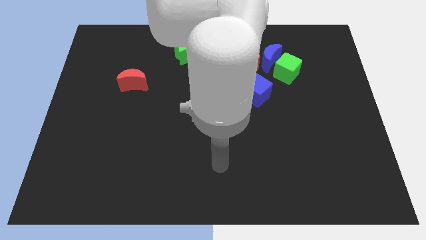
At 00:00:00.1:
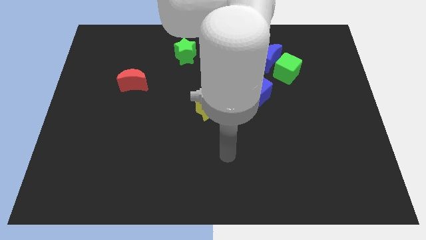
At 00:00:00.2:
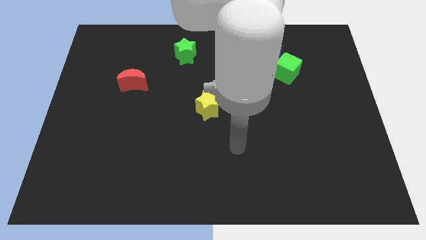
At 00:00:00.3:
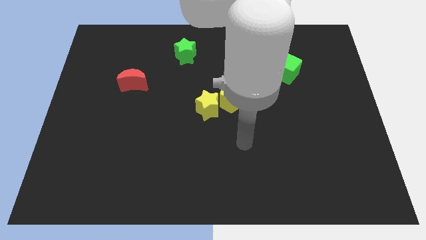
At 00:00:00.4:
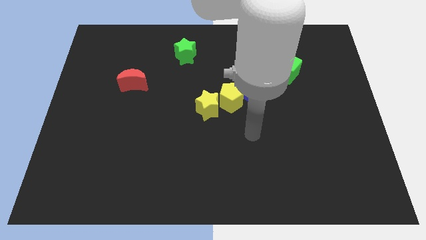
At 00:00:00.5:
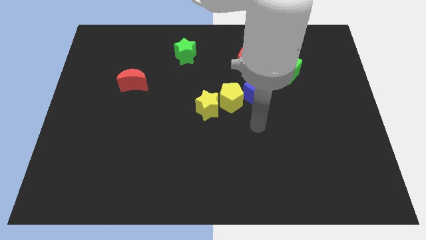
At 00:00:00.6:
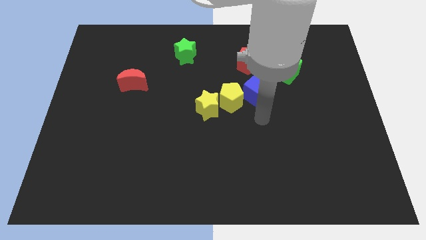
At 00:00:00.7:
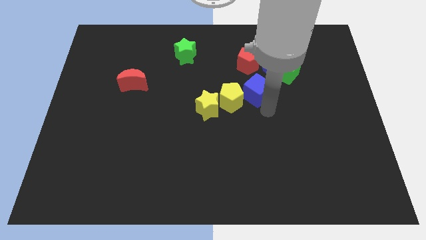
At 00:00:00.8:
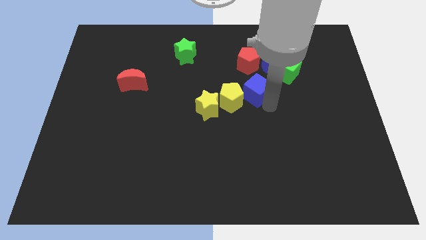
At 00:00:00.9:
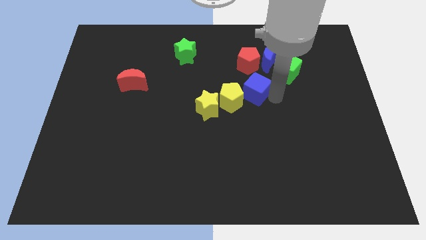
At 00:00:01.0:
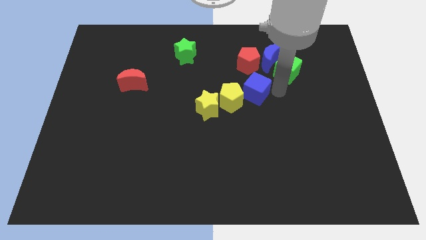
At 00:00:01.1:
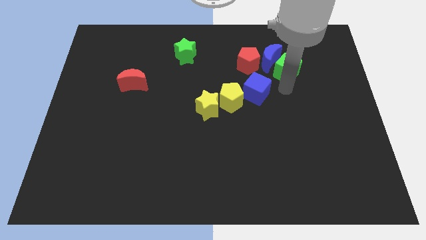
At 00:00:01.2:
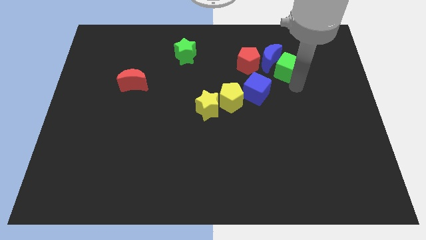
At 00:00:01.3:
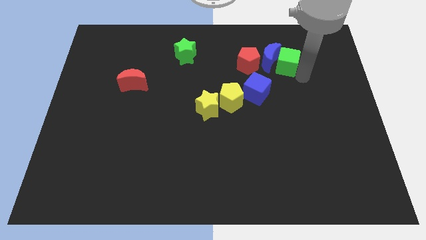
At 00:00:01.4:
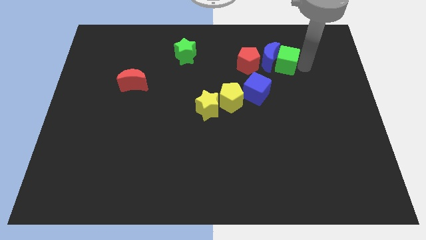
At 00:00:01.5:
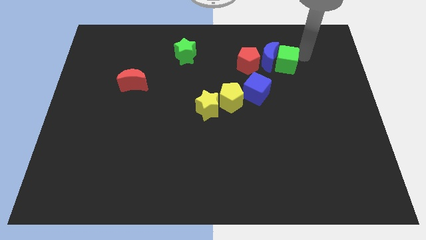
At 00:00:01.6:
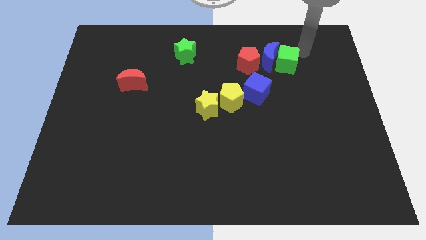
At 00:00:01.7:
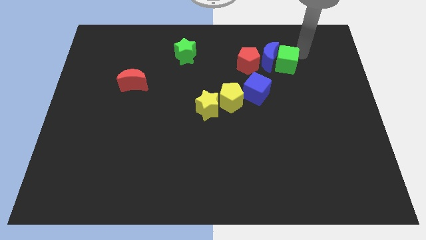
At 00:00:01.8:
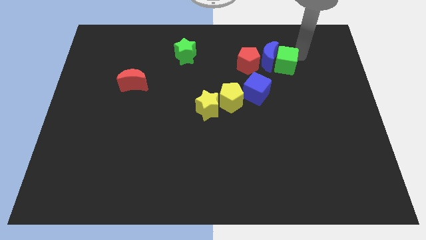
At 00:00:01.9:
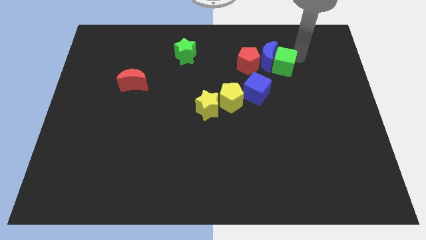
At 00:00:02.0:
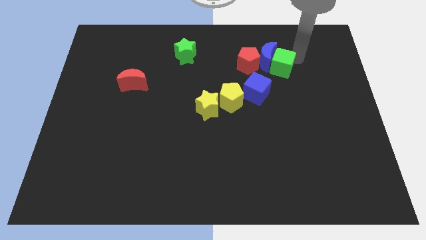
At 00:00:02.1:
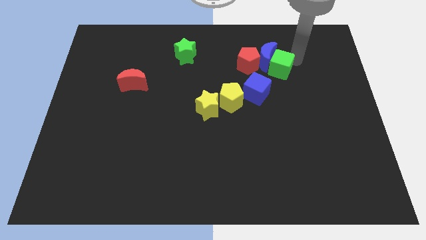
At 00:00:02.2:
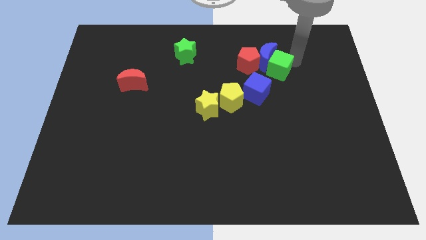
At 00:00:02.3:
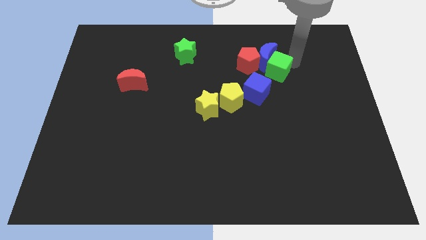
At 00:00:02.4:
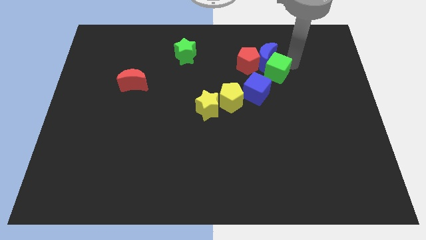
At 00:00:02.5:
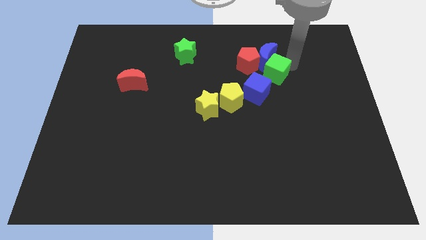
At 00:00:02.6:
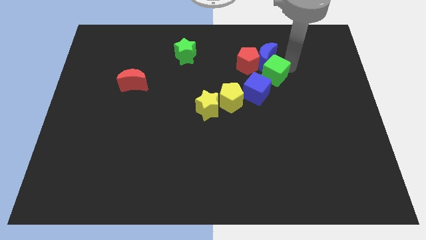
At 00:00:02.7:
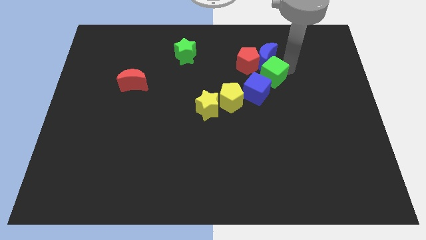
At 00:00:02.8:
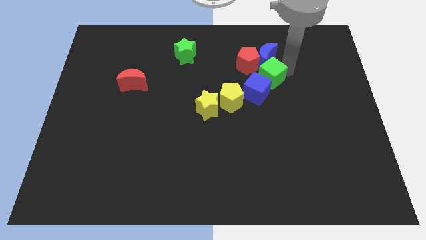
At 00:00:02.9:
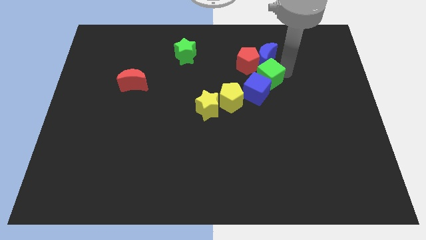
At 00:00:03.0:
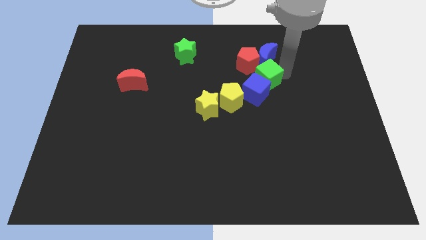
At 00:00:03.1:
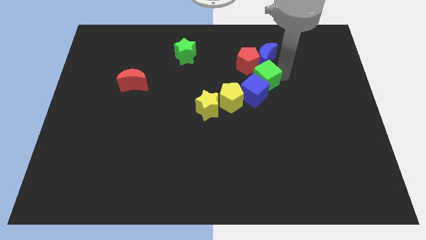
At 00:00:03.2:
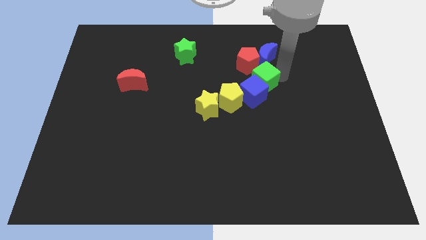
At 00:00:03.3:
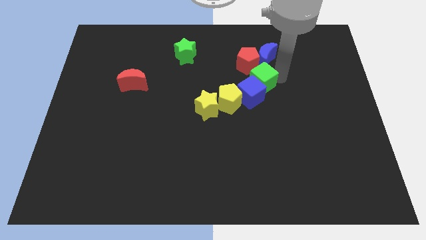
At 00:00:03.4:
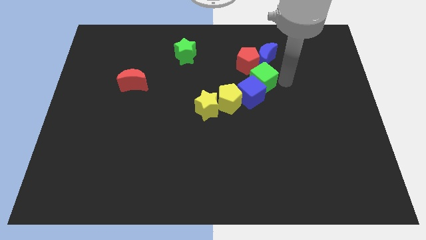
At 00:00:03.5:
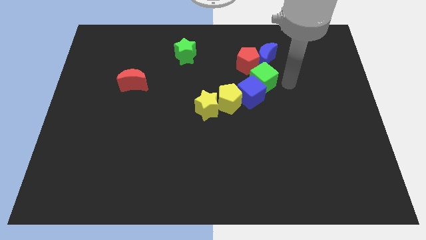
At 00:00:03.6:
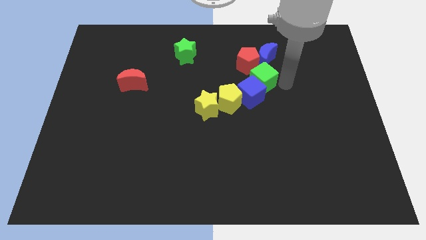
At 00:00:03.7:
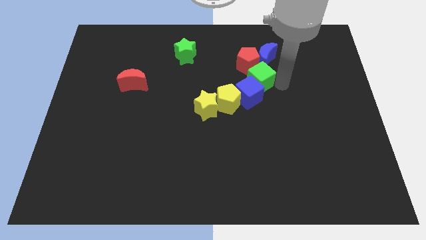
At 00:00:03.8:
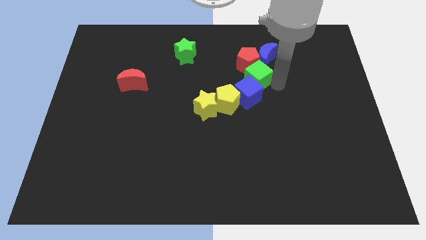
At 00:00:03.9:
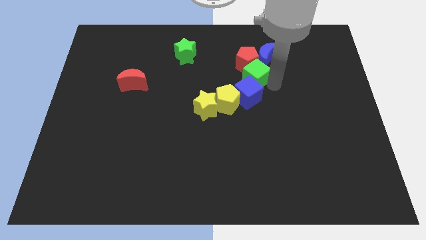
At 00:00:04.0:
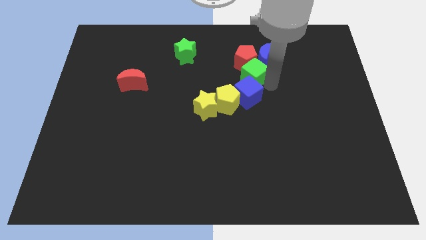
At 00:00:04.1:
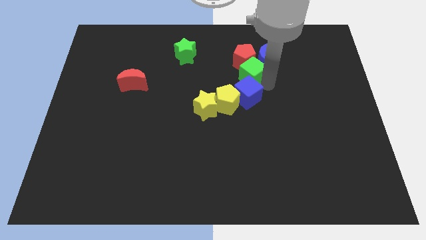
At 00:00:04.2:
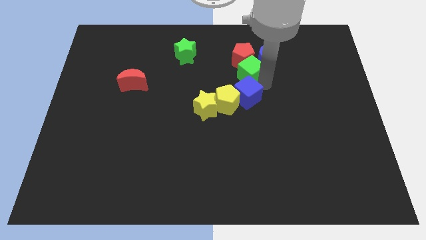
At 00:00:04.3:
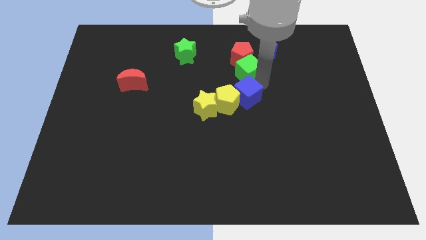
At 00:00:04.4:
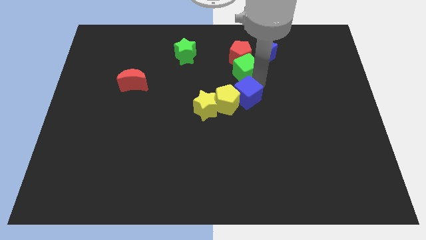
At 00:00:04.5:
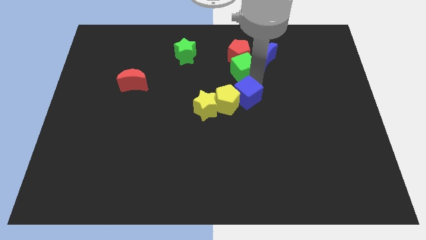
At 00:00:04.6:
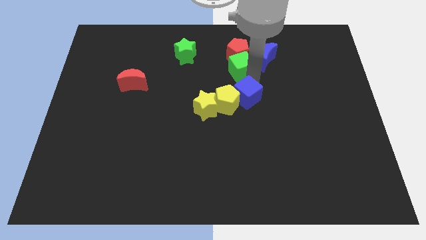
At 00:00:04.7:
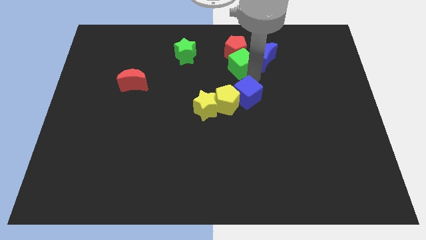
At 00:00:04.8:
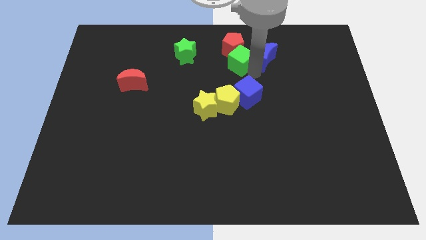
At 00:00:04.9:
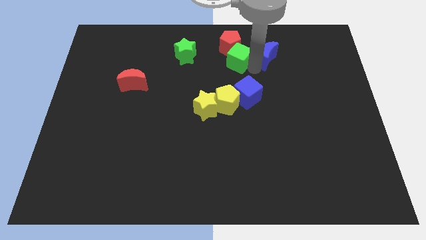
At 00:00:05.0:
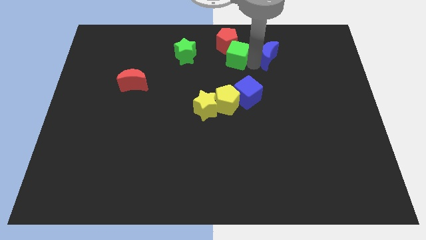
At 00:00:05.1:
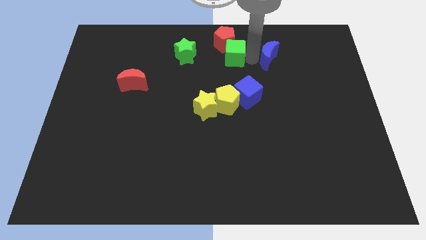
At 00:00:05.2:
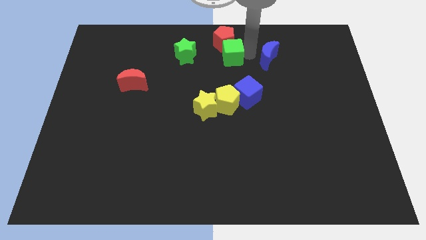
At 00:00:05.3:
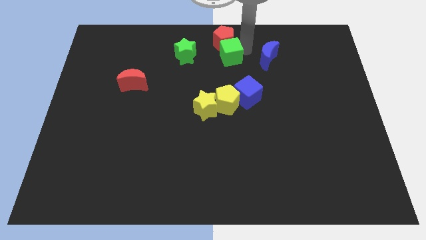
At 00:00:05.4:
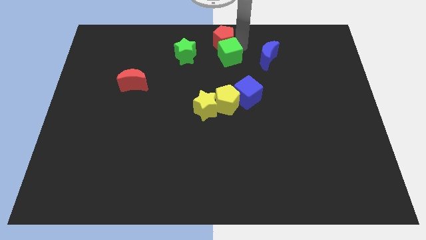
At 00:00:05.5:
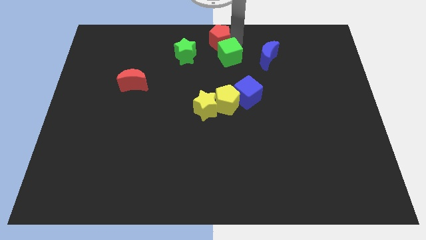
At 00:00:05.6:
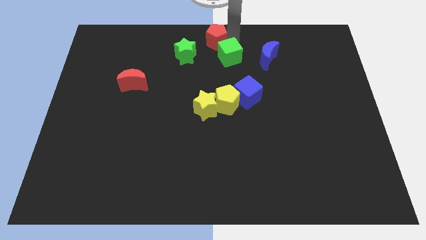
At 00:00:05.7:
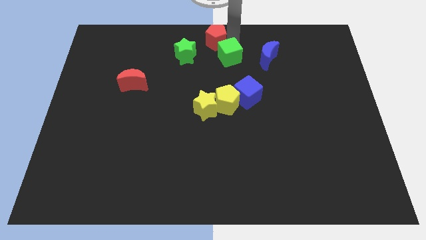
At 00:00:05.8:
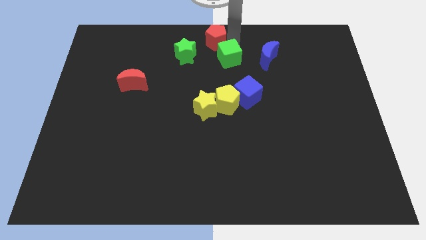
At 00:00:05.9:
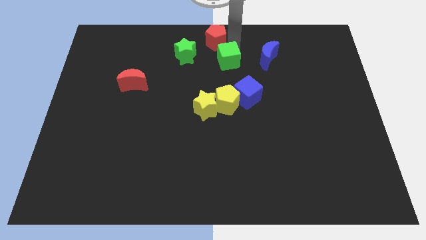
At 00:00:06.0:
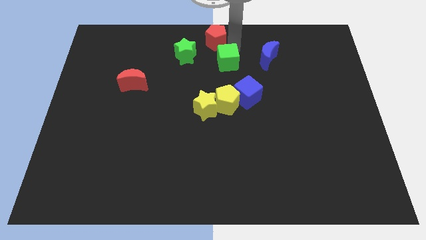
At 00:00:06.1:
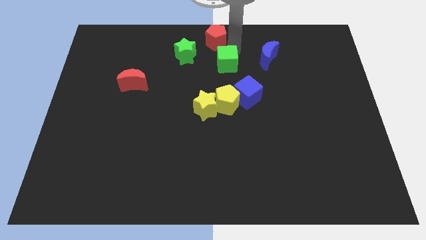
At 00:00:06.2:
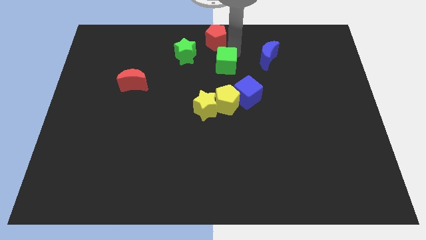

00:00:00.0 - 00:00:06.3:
move the green cube to the top left of the blue cube

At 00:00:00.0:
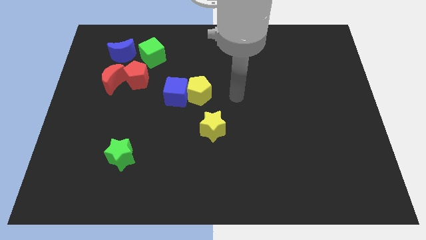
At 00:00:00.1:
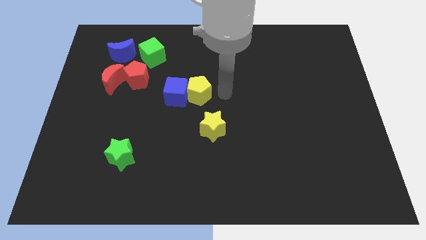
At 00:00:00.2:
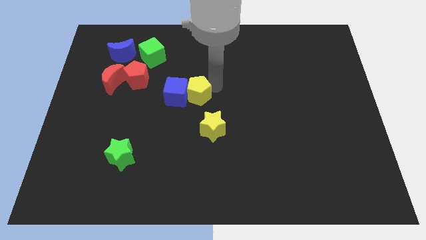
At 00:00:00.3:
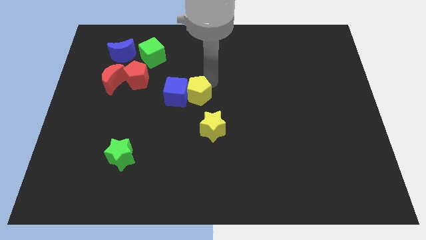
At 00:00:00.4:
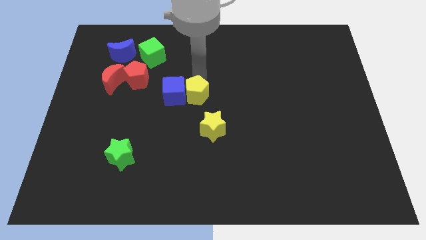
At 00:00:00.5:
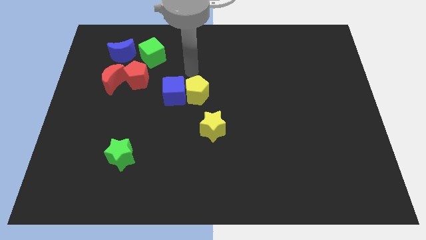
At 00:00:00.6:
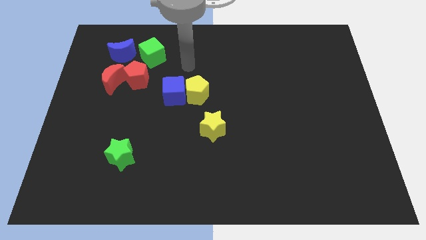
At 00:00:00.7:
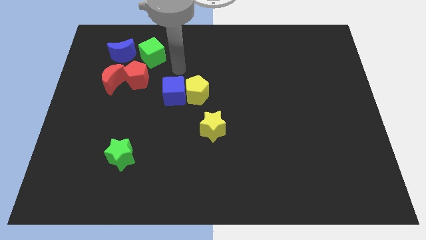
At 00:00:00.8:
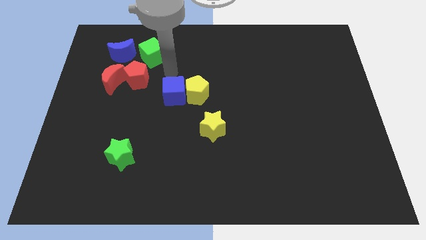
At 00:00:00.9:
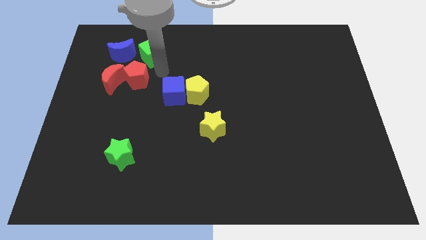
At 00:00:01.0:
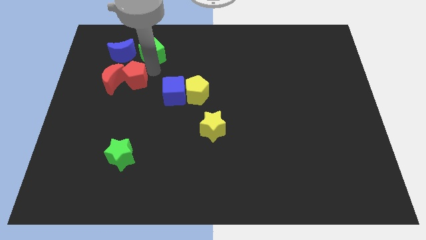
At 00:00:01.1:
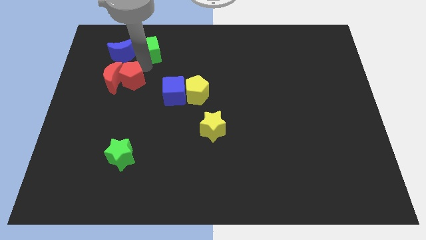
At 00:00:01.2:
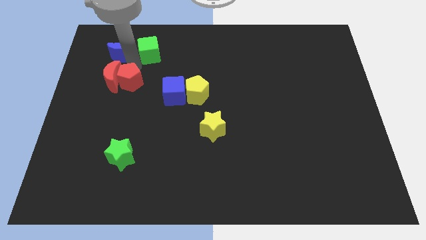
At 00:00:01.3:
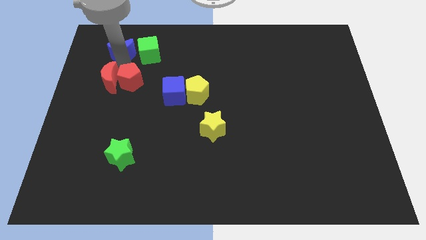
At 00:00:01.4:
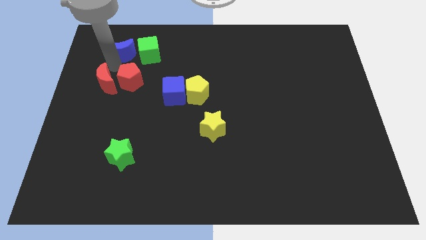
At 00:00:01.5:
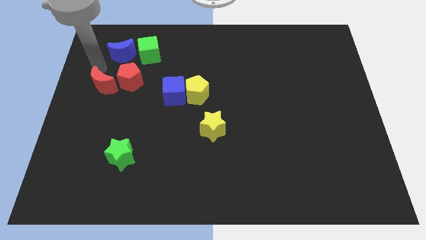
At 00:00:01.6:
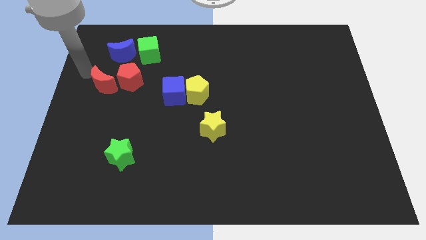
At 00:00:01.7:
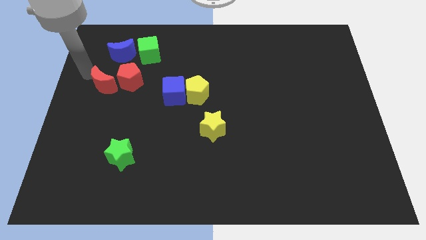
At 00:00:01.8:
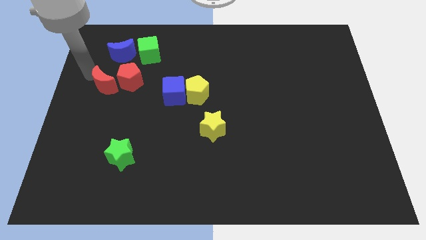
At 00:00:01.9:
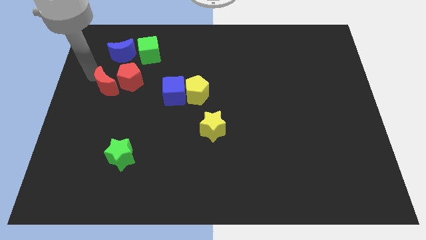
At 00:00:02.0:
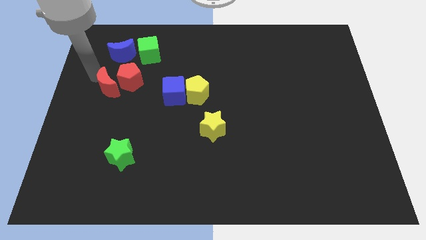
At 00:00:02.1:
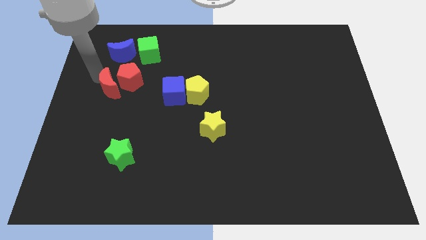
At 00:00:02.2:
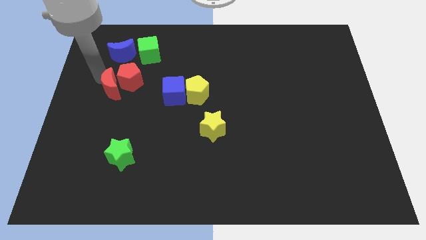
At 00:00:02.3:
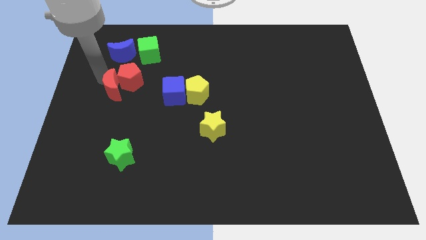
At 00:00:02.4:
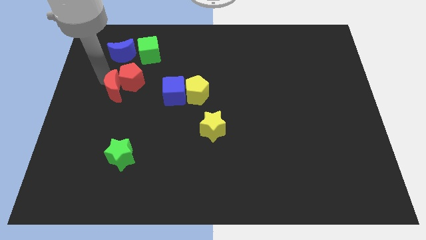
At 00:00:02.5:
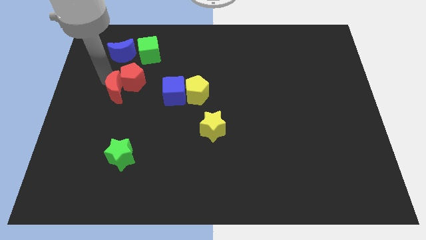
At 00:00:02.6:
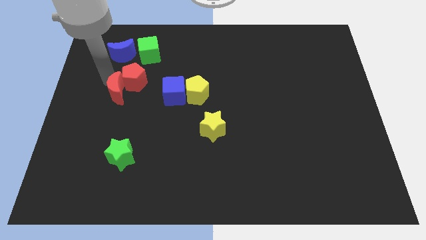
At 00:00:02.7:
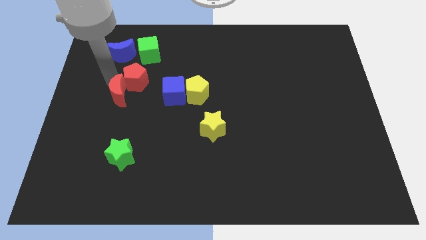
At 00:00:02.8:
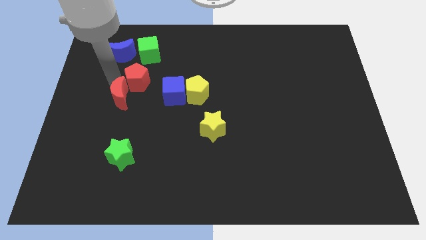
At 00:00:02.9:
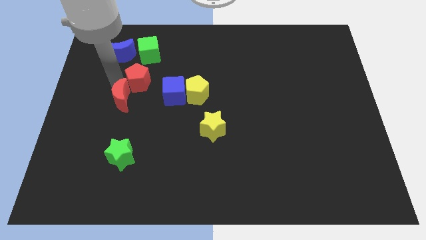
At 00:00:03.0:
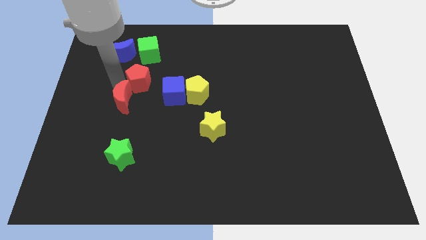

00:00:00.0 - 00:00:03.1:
move the red moon to the top side of the green star
